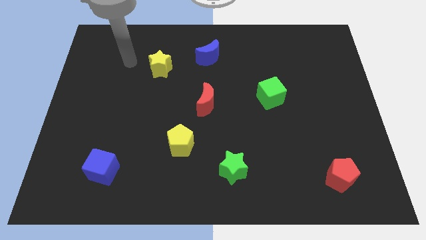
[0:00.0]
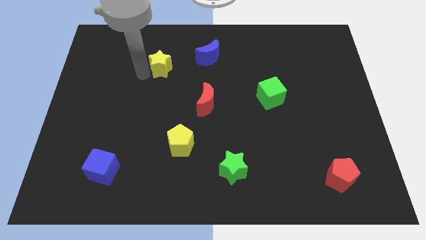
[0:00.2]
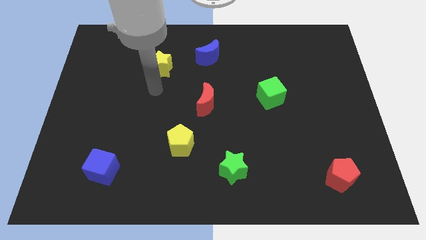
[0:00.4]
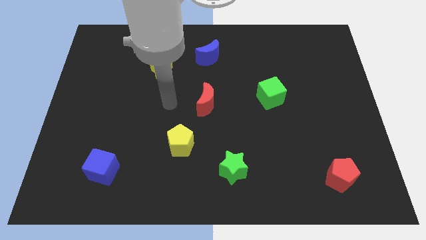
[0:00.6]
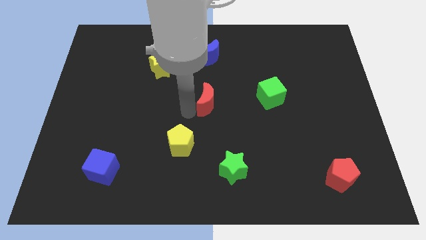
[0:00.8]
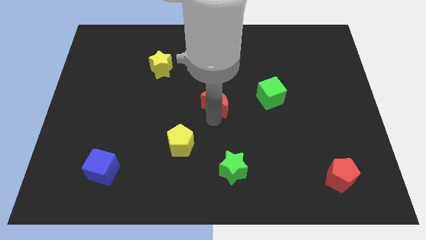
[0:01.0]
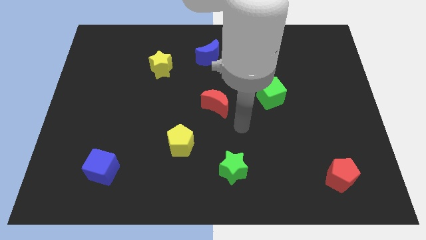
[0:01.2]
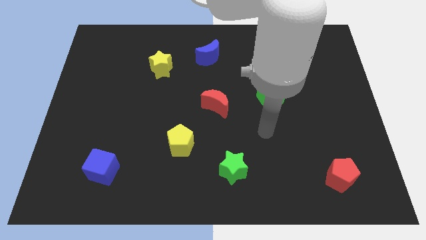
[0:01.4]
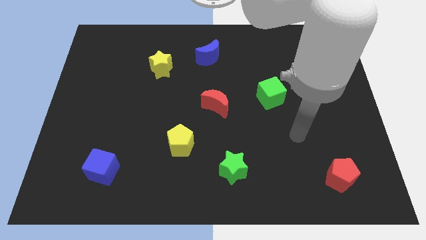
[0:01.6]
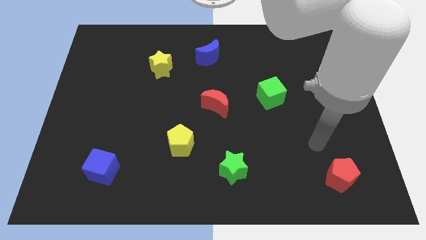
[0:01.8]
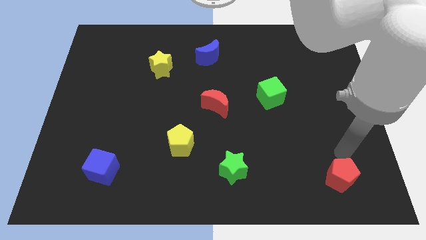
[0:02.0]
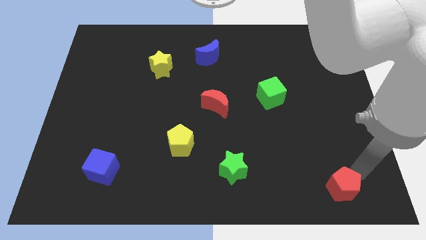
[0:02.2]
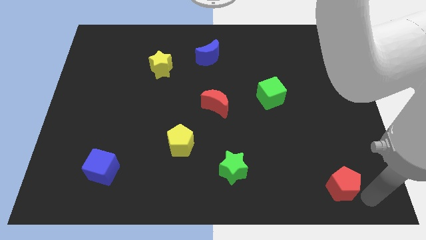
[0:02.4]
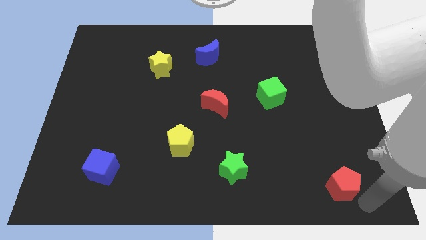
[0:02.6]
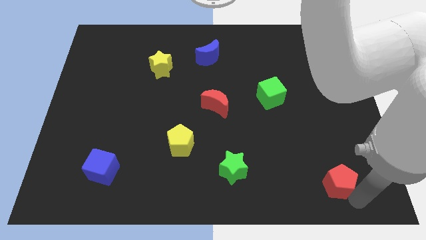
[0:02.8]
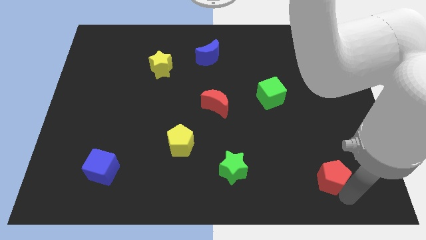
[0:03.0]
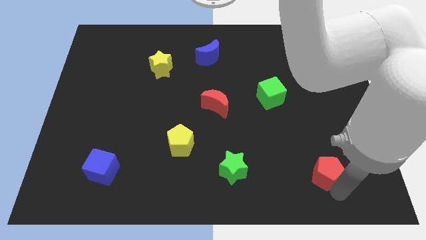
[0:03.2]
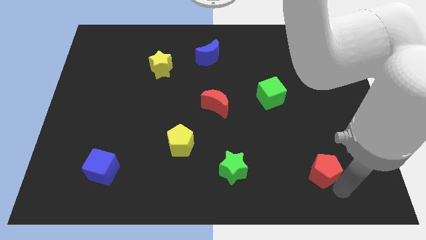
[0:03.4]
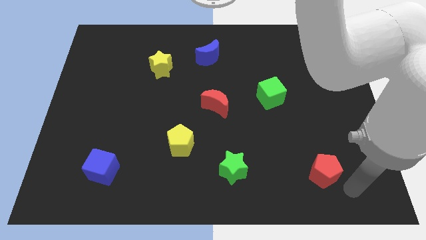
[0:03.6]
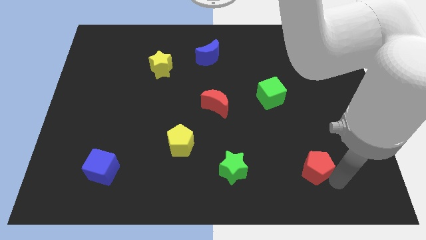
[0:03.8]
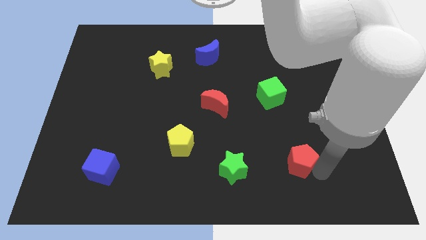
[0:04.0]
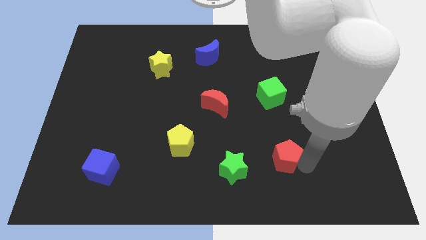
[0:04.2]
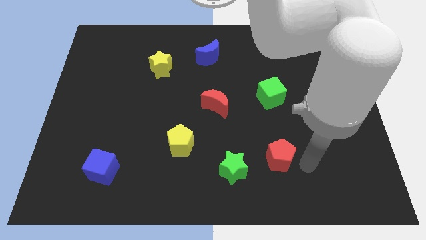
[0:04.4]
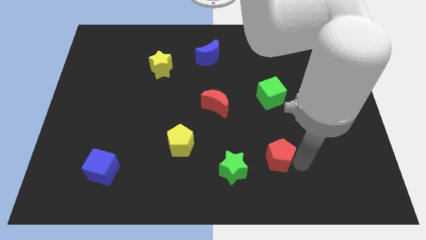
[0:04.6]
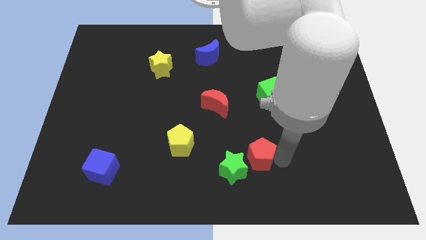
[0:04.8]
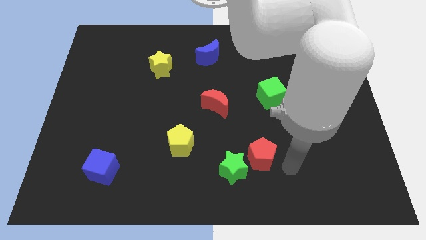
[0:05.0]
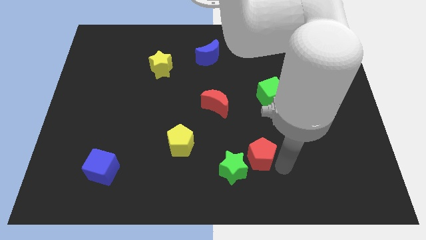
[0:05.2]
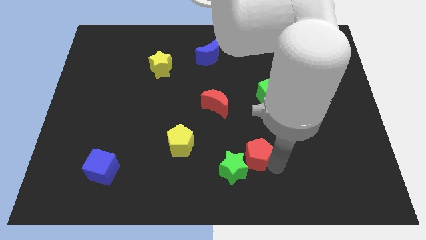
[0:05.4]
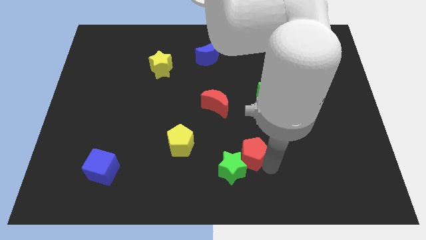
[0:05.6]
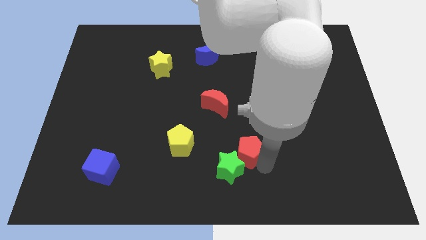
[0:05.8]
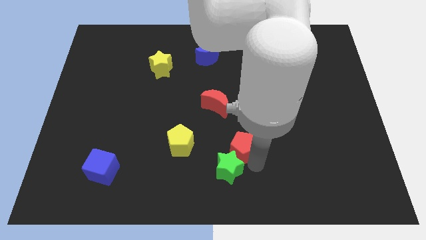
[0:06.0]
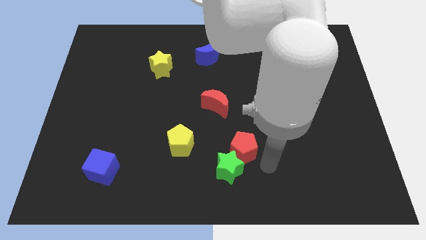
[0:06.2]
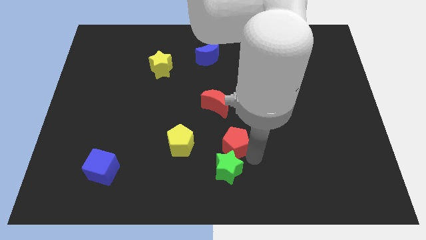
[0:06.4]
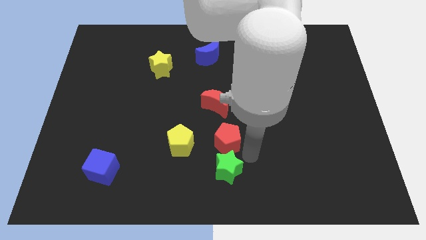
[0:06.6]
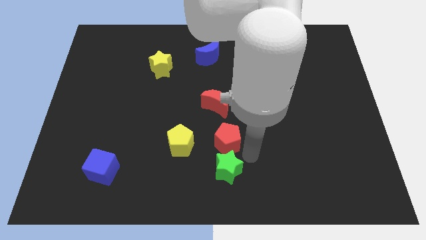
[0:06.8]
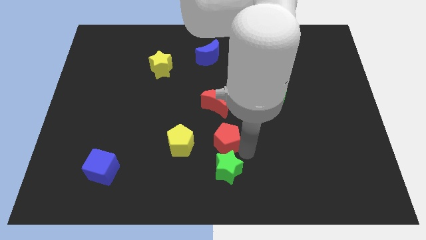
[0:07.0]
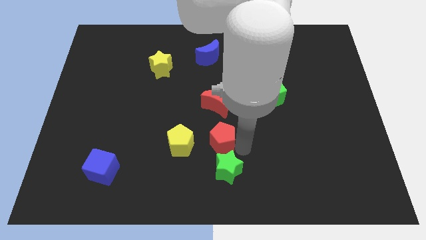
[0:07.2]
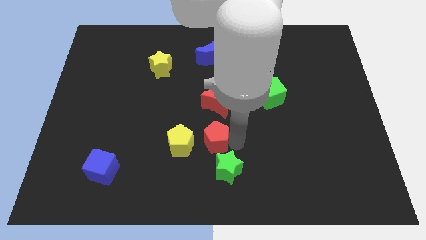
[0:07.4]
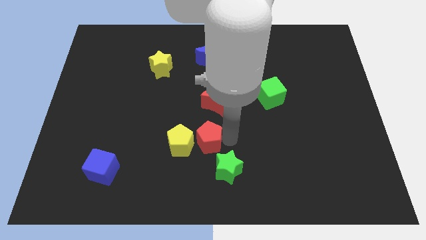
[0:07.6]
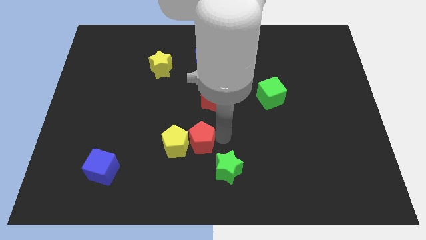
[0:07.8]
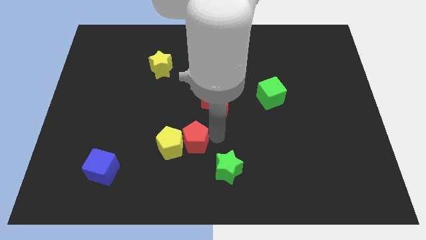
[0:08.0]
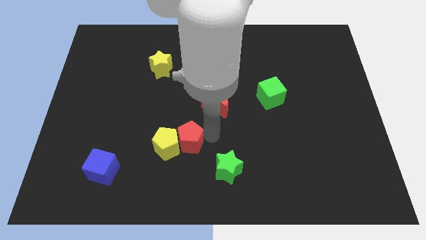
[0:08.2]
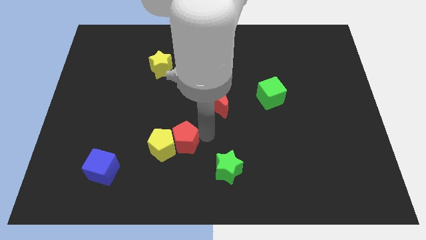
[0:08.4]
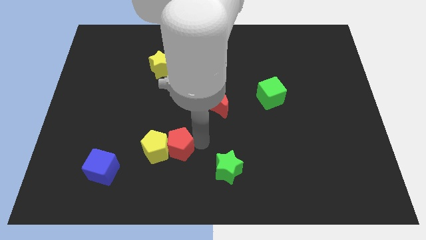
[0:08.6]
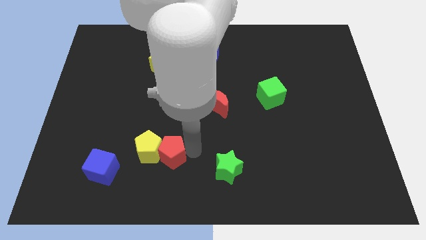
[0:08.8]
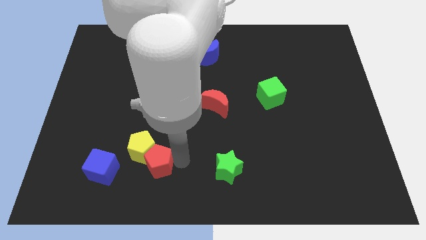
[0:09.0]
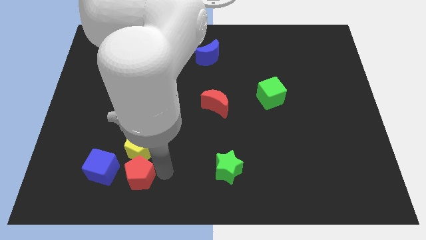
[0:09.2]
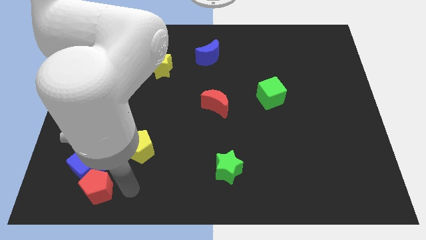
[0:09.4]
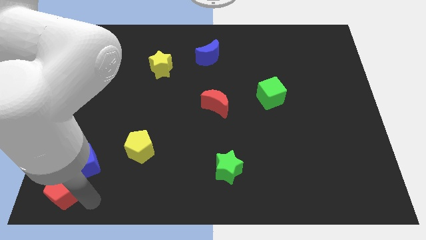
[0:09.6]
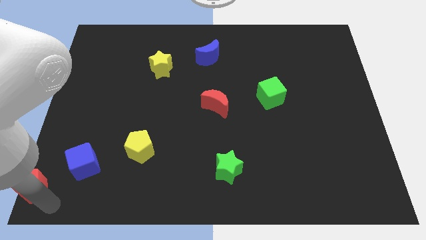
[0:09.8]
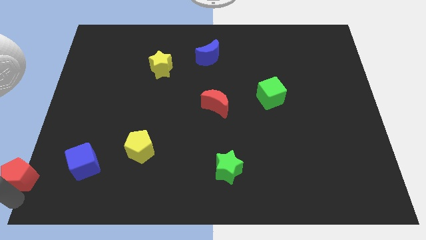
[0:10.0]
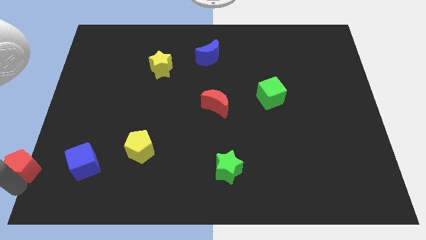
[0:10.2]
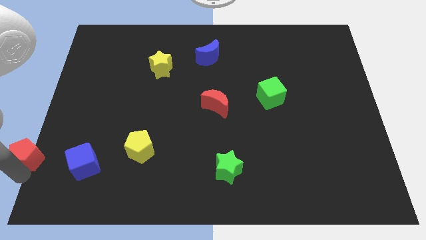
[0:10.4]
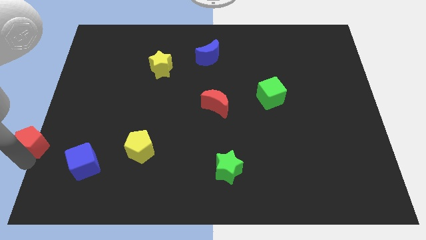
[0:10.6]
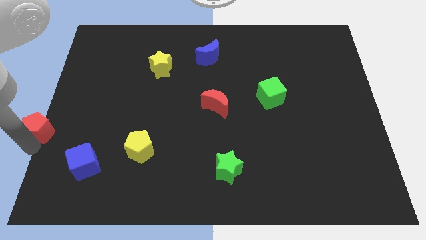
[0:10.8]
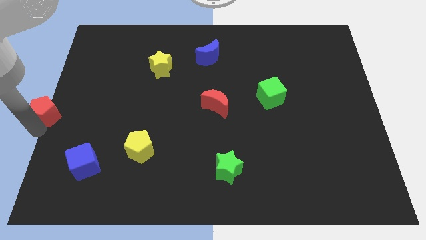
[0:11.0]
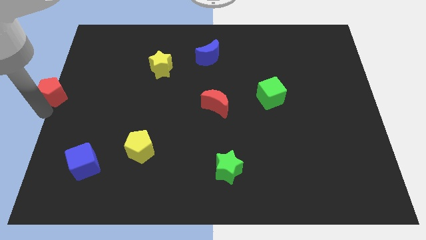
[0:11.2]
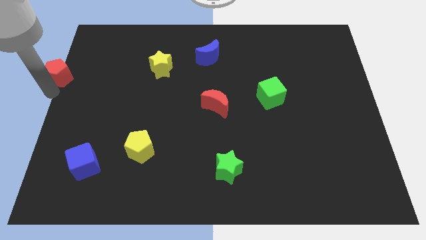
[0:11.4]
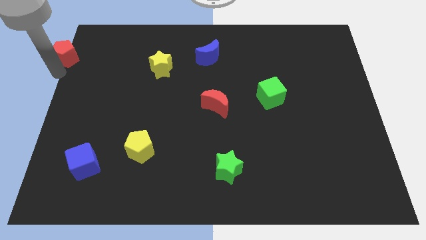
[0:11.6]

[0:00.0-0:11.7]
put the red pentagon to the top left of the board

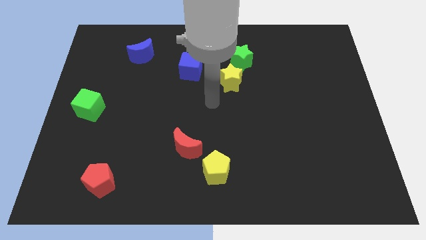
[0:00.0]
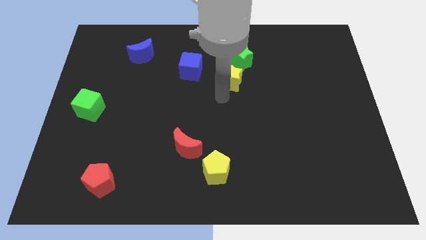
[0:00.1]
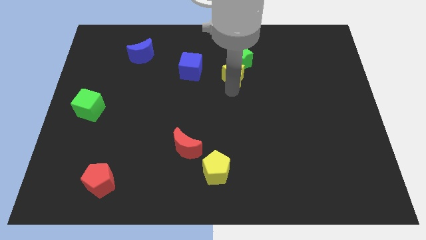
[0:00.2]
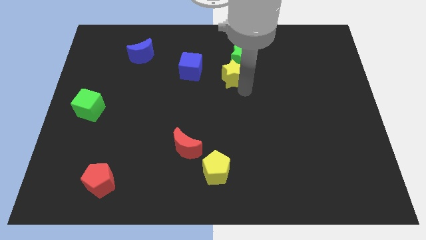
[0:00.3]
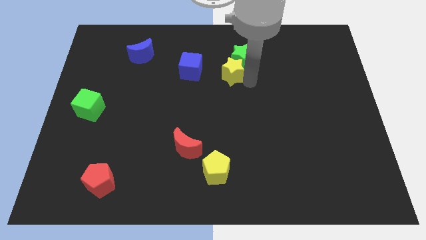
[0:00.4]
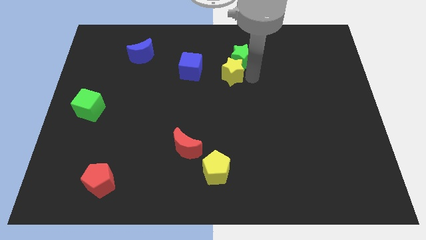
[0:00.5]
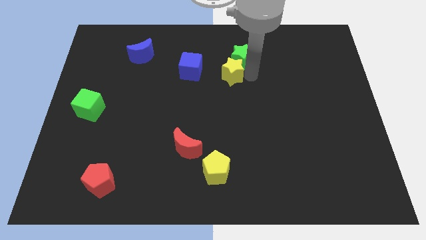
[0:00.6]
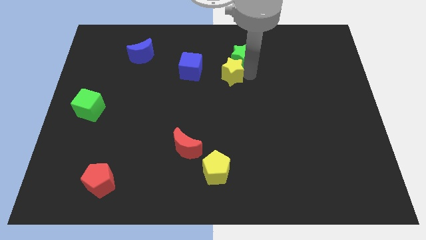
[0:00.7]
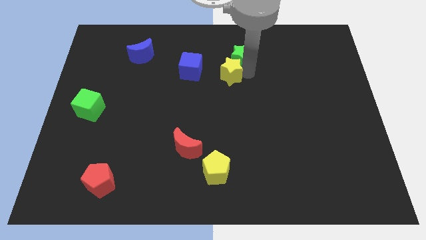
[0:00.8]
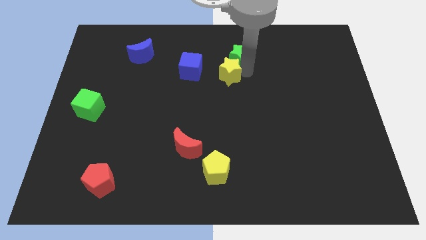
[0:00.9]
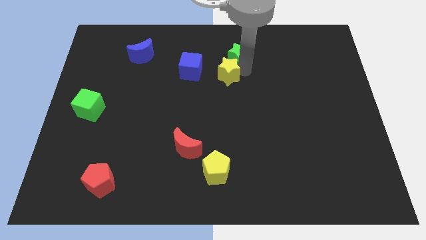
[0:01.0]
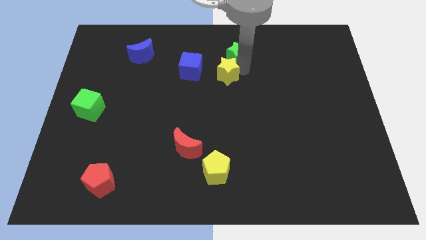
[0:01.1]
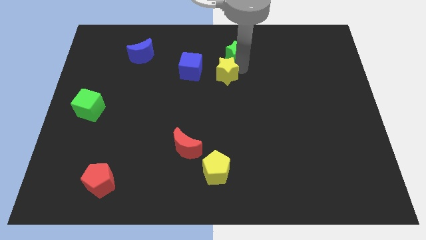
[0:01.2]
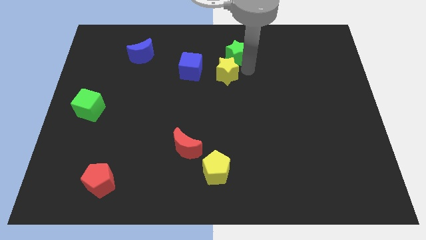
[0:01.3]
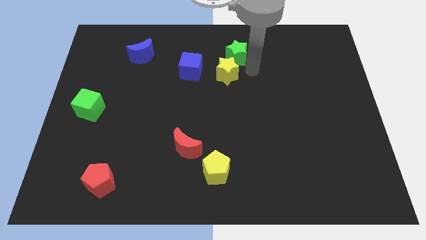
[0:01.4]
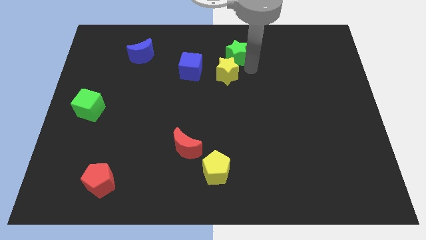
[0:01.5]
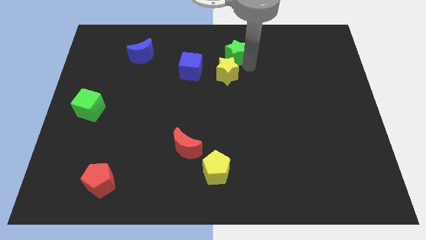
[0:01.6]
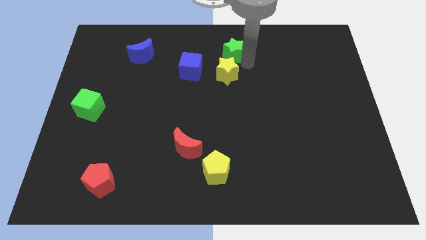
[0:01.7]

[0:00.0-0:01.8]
slide the green star to the top side
